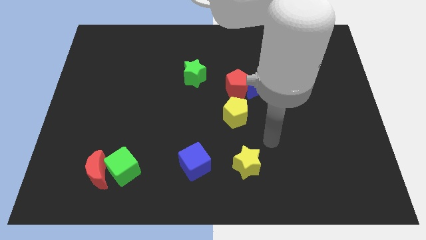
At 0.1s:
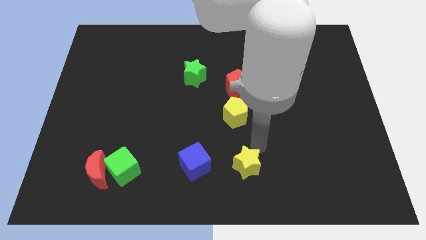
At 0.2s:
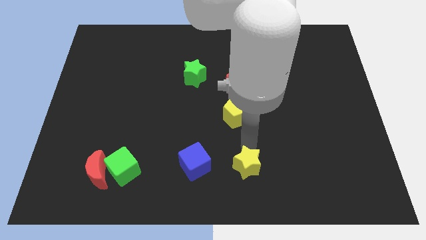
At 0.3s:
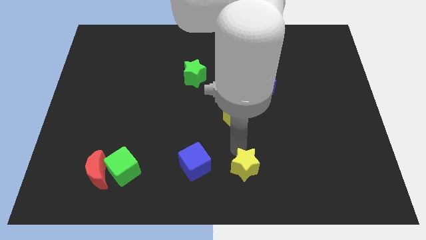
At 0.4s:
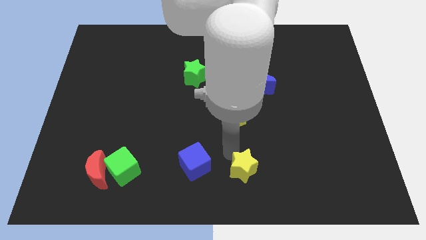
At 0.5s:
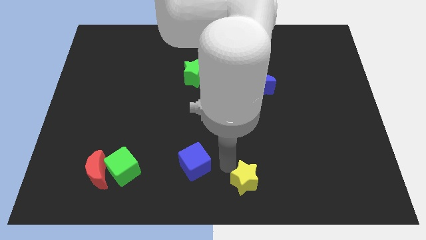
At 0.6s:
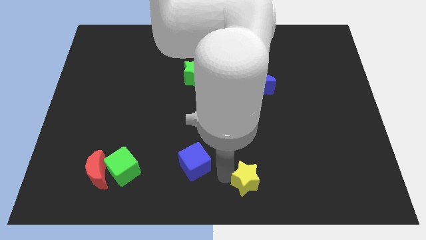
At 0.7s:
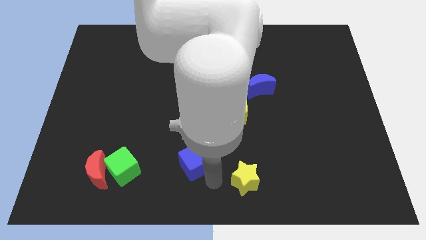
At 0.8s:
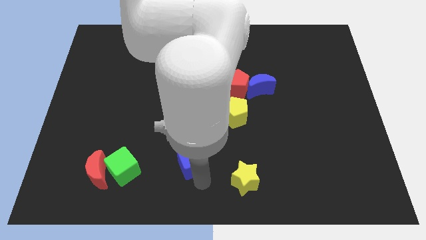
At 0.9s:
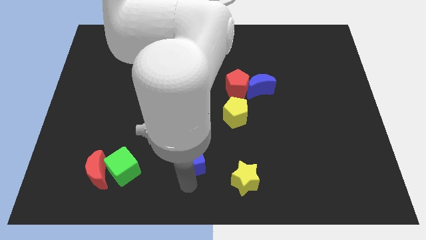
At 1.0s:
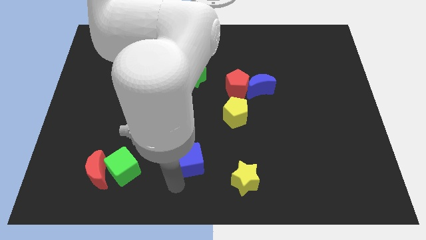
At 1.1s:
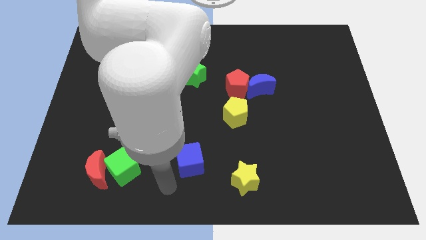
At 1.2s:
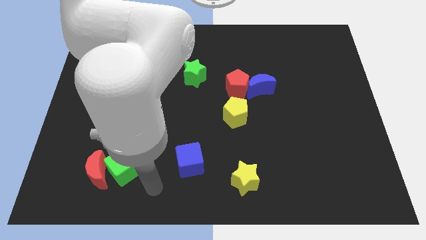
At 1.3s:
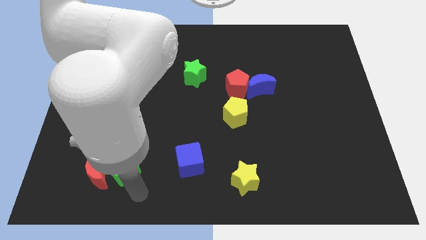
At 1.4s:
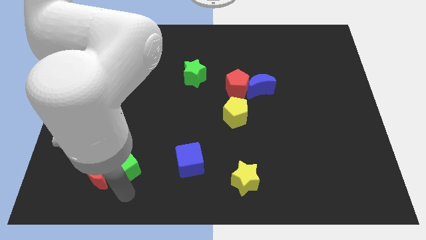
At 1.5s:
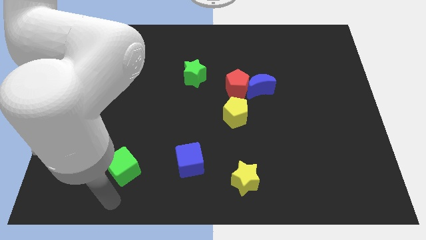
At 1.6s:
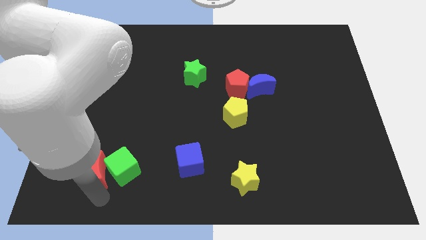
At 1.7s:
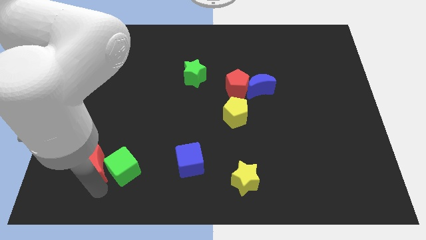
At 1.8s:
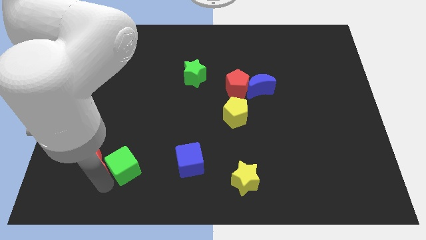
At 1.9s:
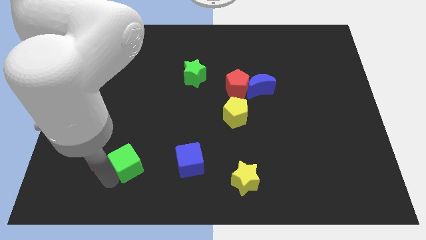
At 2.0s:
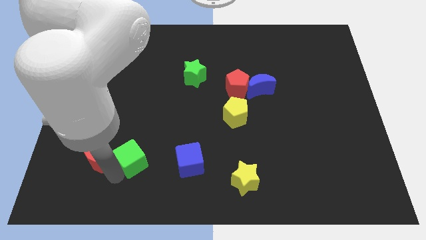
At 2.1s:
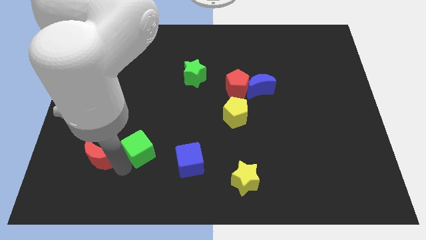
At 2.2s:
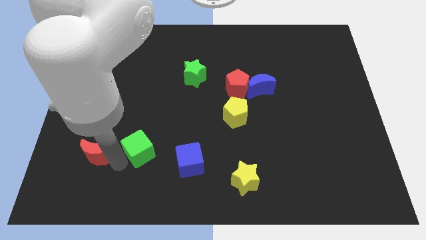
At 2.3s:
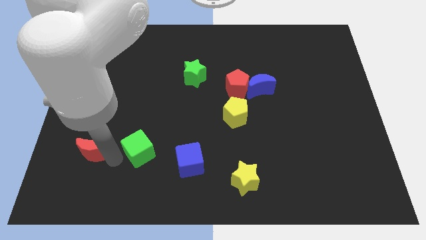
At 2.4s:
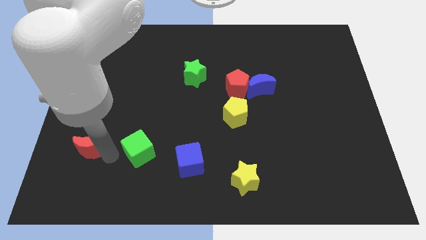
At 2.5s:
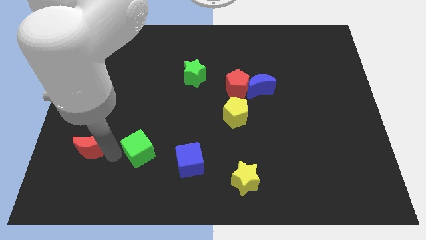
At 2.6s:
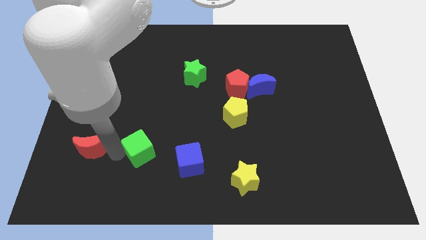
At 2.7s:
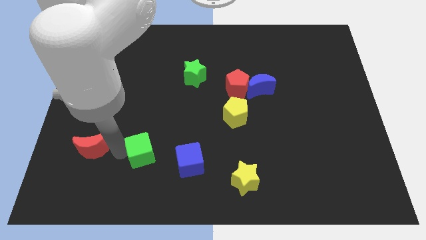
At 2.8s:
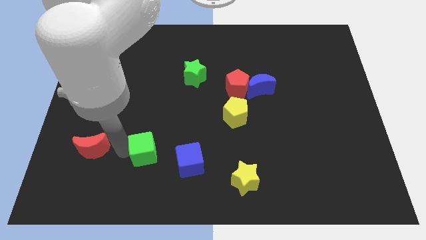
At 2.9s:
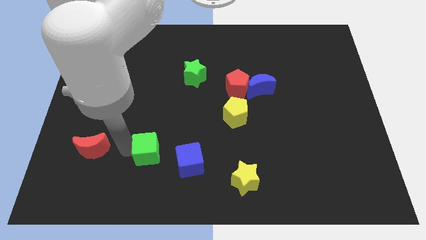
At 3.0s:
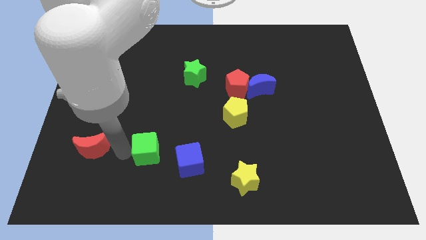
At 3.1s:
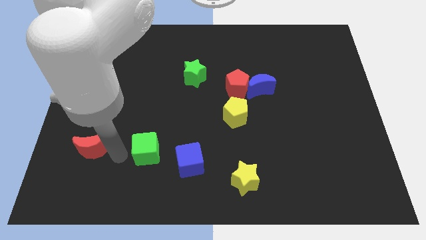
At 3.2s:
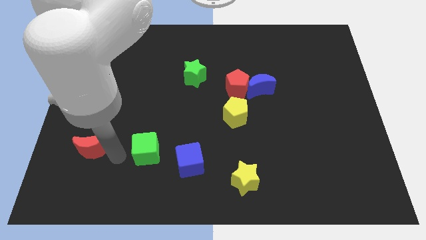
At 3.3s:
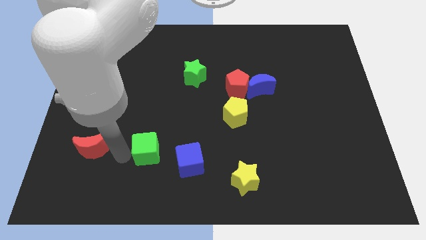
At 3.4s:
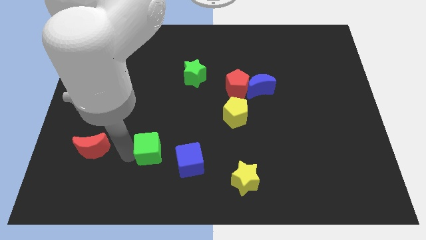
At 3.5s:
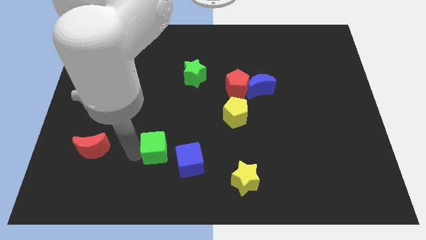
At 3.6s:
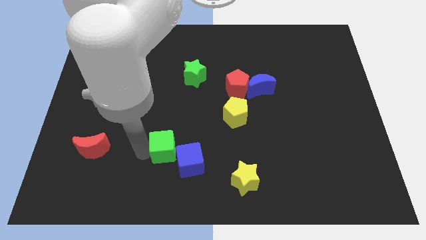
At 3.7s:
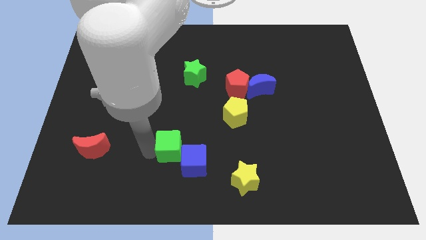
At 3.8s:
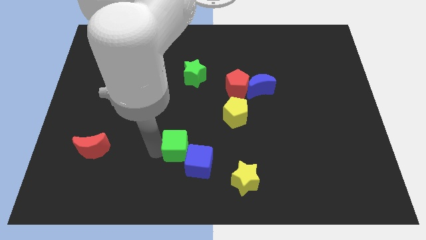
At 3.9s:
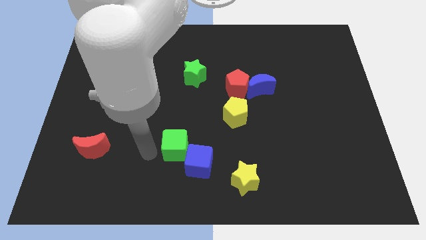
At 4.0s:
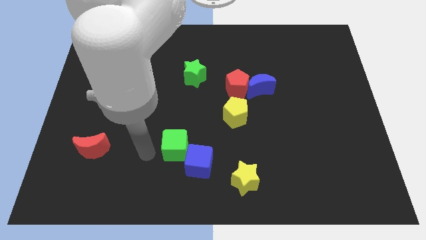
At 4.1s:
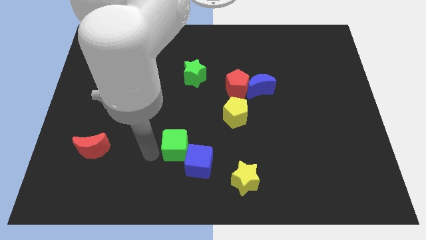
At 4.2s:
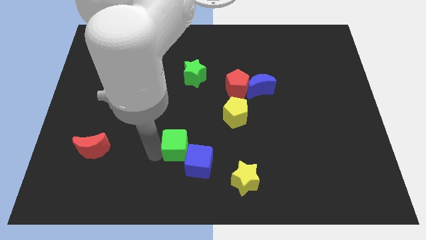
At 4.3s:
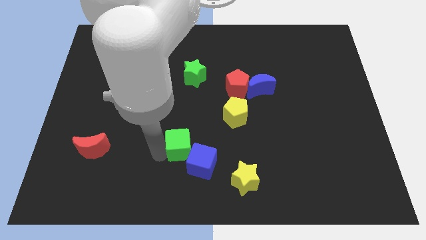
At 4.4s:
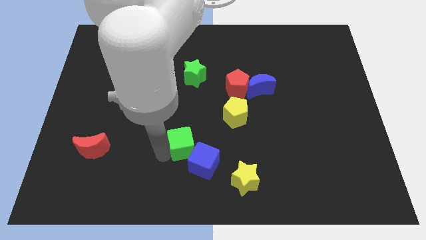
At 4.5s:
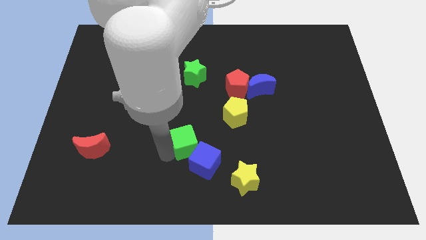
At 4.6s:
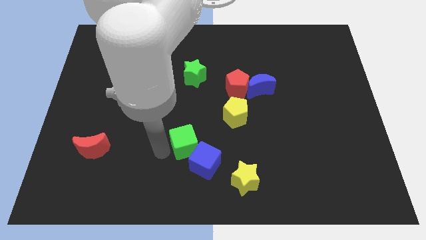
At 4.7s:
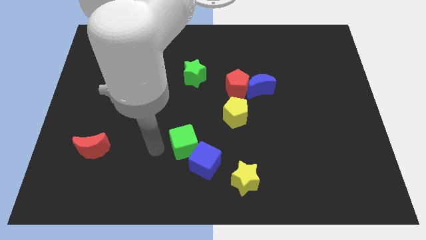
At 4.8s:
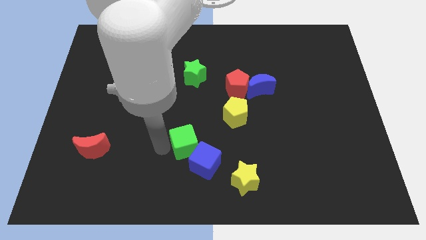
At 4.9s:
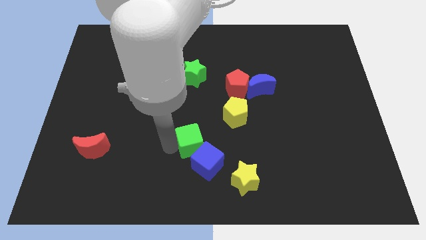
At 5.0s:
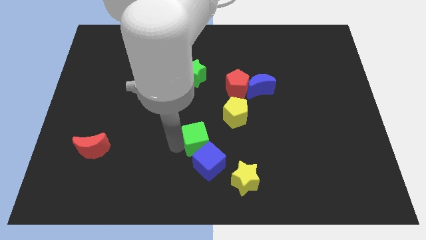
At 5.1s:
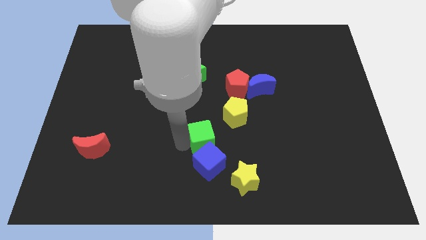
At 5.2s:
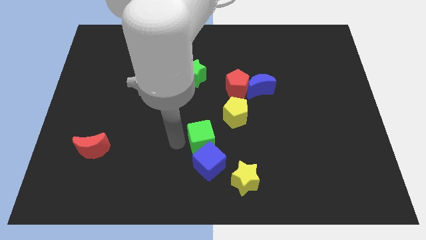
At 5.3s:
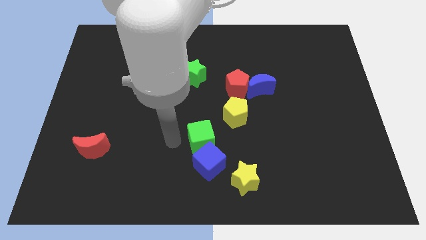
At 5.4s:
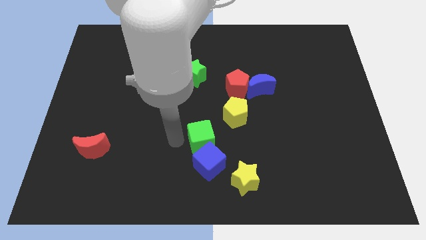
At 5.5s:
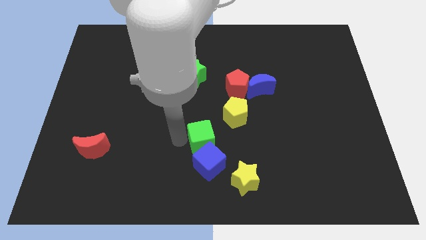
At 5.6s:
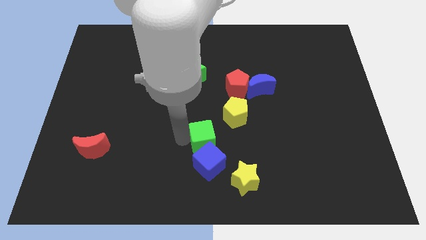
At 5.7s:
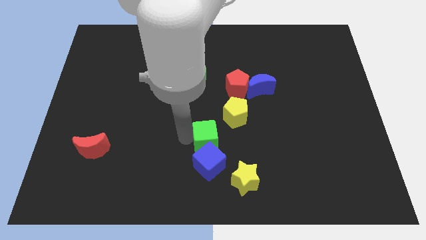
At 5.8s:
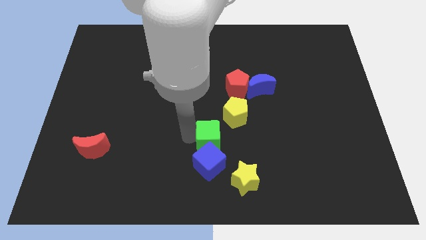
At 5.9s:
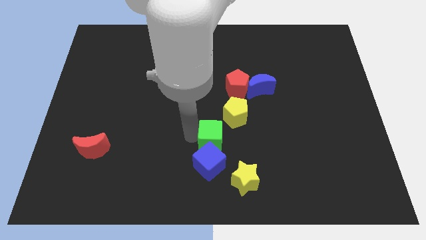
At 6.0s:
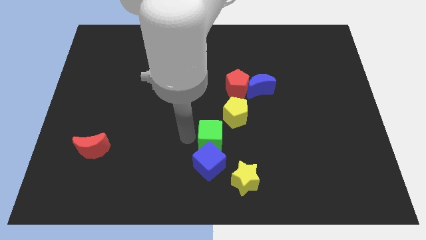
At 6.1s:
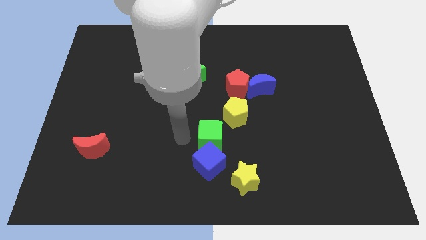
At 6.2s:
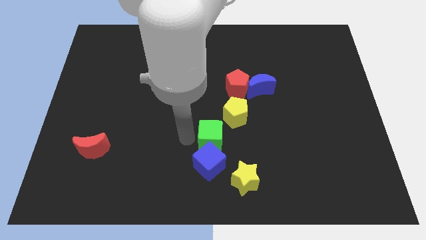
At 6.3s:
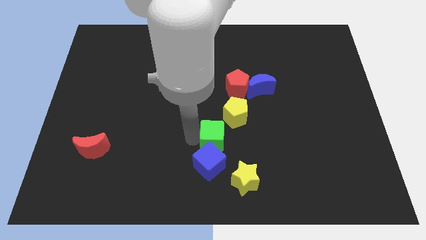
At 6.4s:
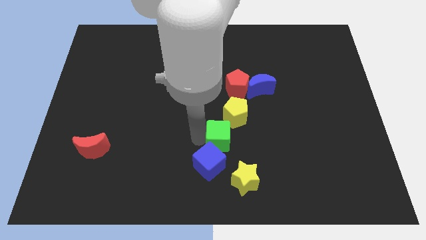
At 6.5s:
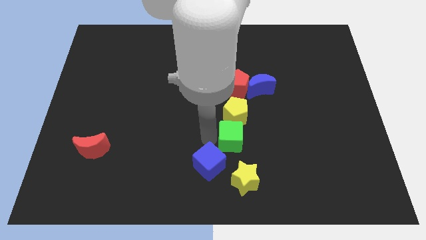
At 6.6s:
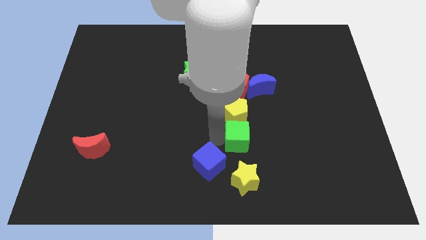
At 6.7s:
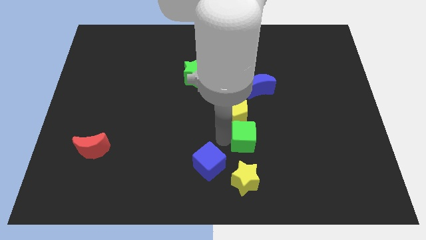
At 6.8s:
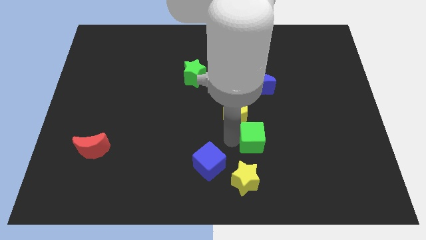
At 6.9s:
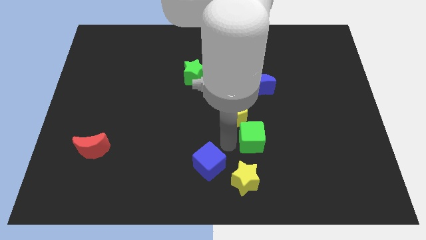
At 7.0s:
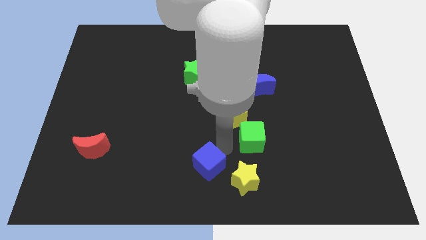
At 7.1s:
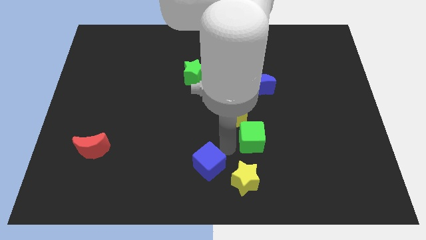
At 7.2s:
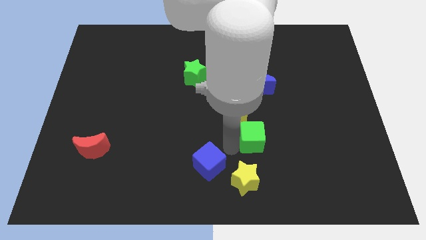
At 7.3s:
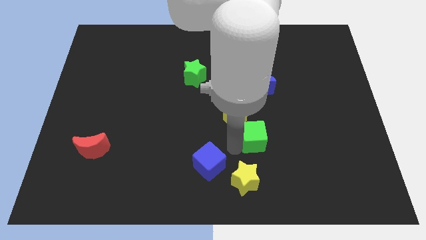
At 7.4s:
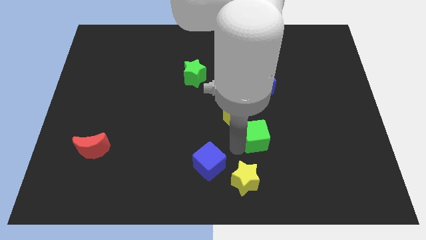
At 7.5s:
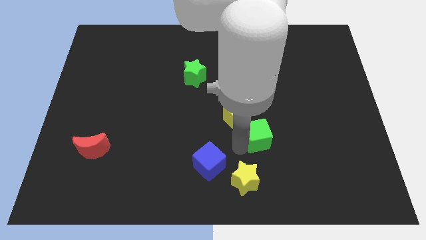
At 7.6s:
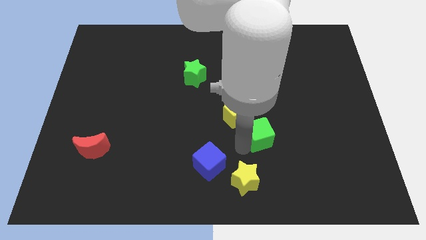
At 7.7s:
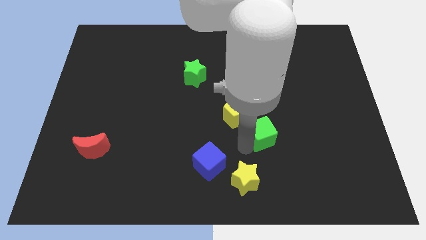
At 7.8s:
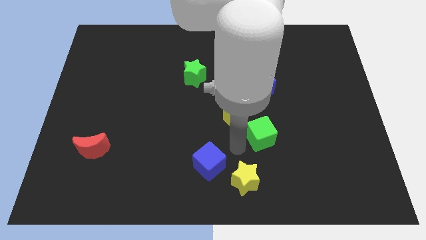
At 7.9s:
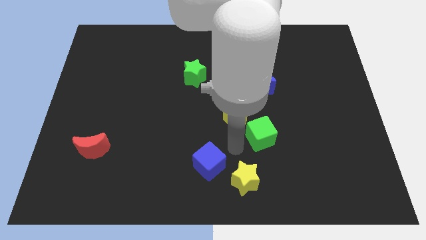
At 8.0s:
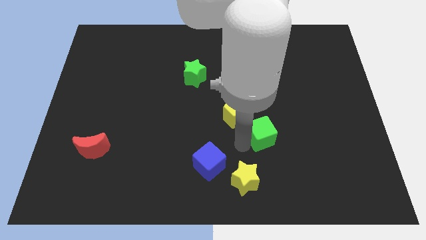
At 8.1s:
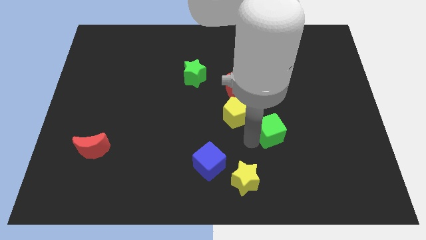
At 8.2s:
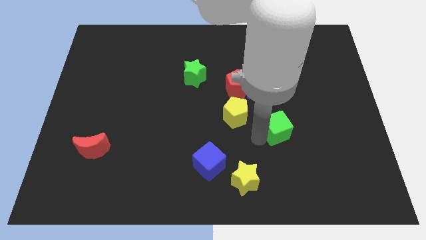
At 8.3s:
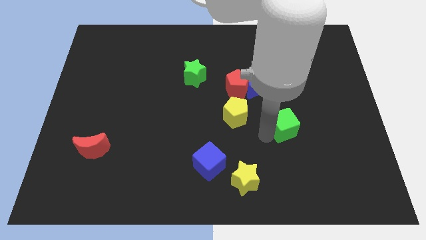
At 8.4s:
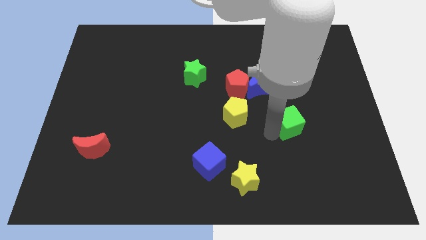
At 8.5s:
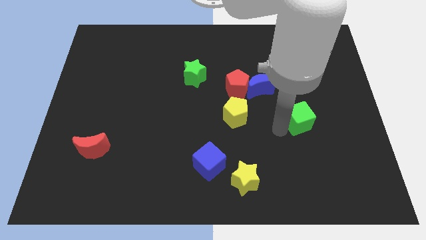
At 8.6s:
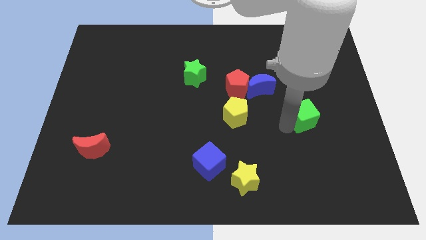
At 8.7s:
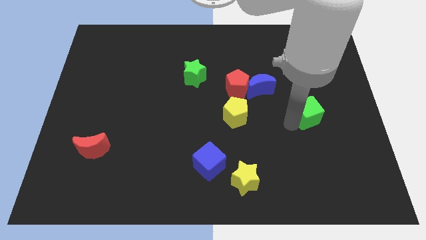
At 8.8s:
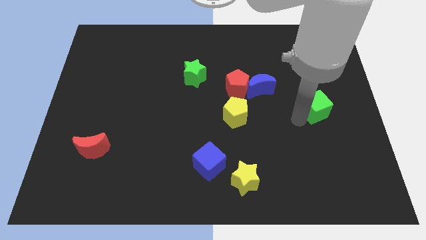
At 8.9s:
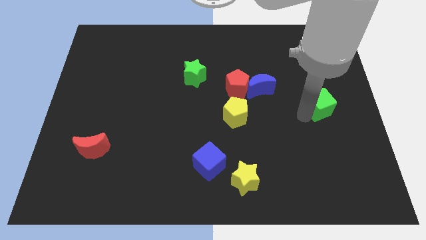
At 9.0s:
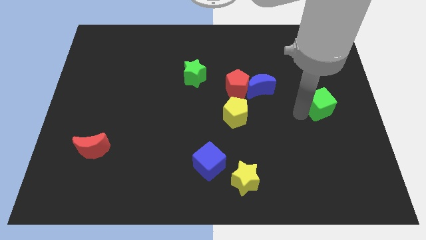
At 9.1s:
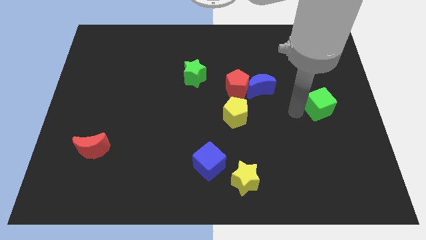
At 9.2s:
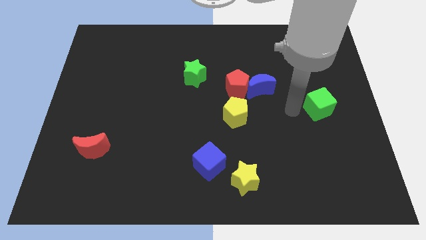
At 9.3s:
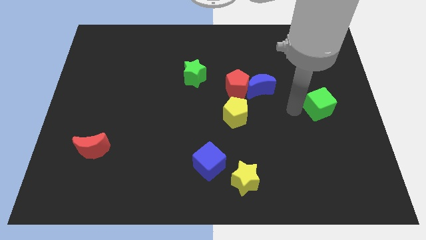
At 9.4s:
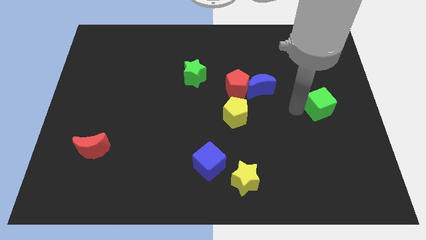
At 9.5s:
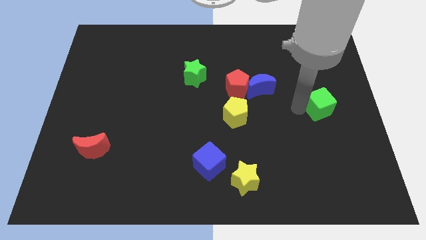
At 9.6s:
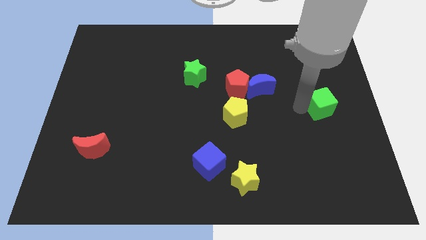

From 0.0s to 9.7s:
push the green cube to the center right
